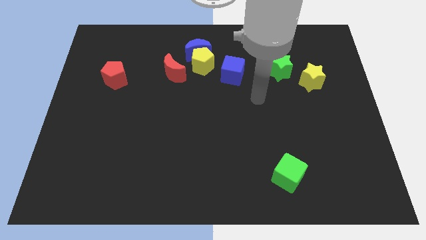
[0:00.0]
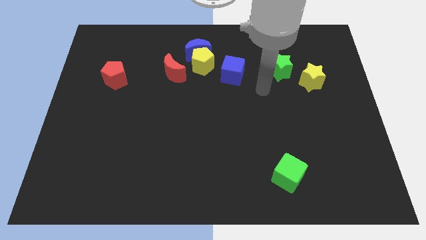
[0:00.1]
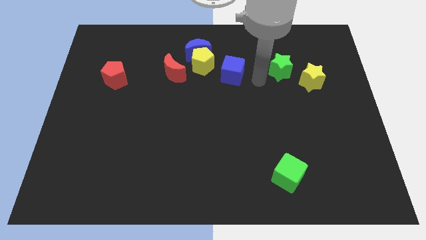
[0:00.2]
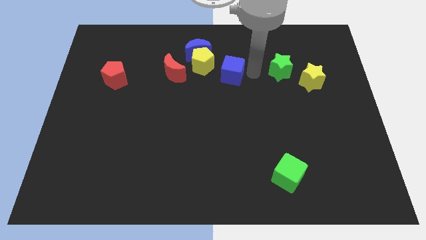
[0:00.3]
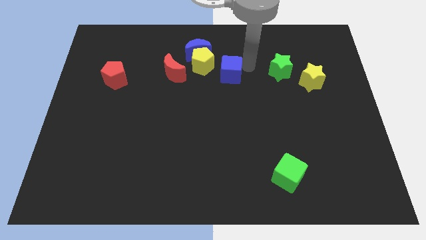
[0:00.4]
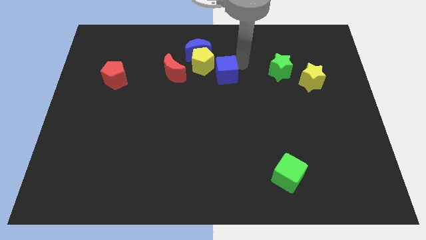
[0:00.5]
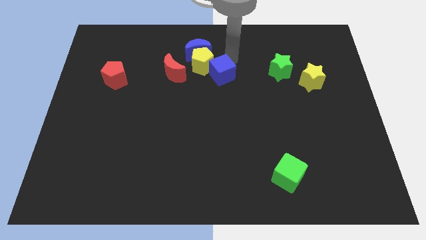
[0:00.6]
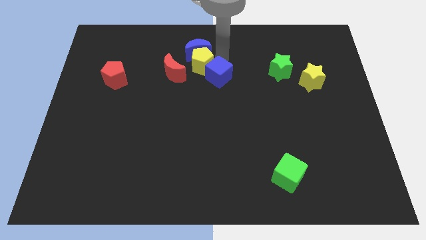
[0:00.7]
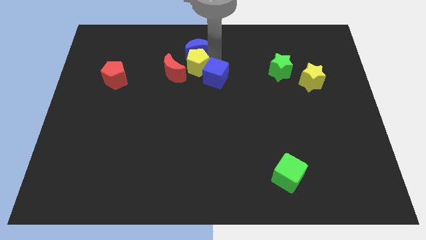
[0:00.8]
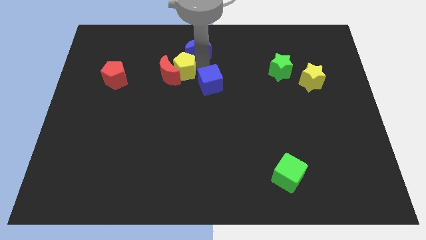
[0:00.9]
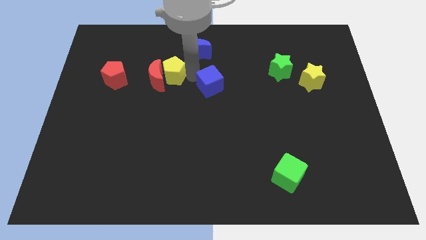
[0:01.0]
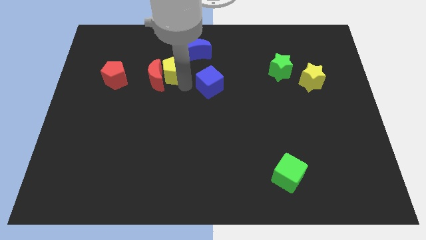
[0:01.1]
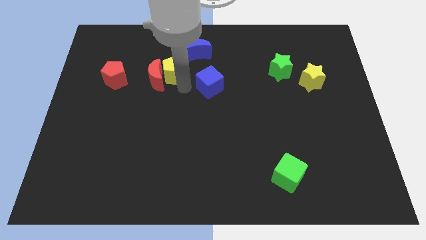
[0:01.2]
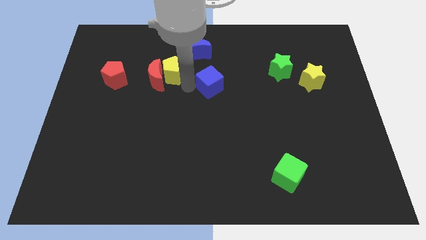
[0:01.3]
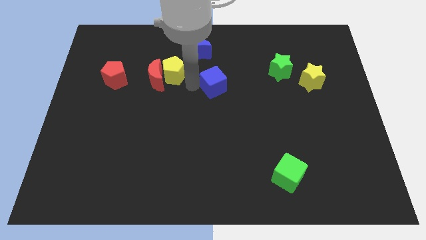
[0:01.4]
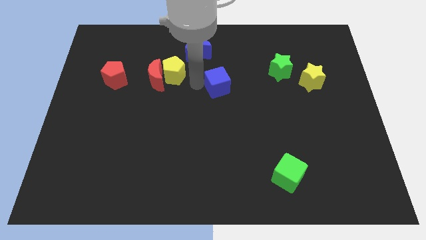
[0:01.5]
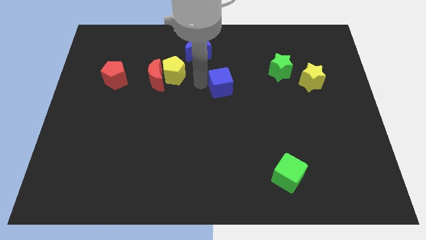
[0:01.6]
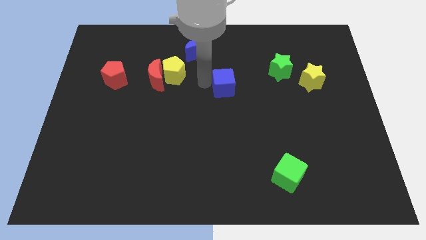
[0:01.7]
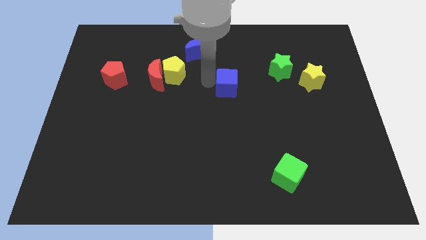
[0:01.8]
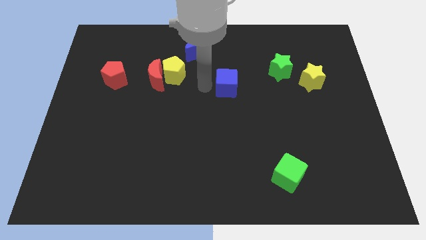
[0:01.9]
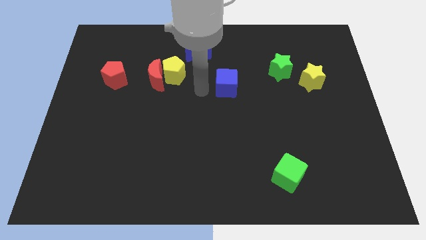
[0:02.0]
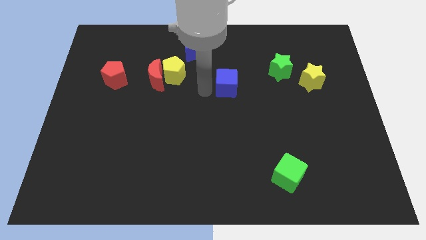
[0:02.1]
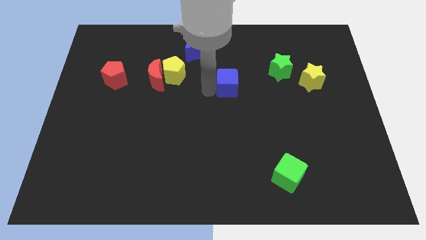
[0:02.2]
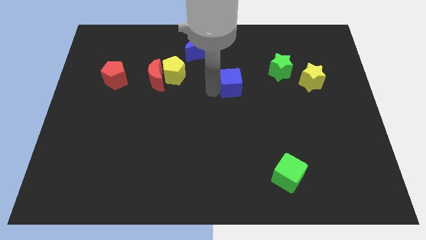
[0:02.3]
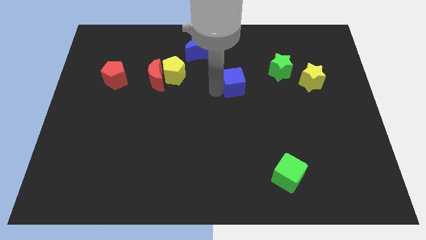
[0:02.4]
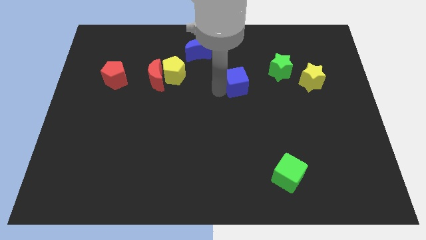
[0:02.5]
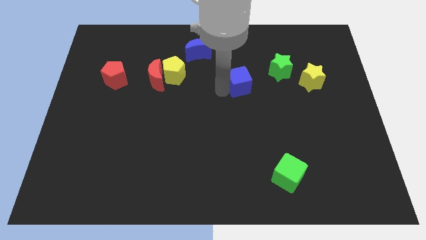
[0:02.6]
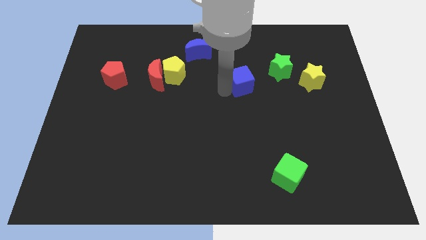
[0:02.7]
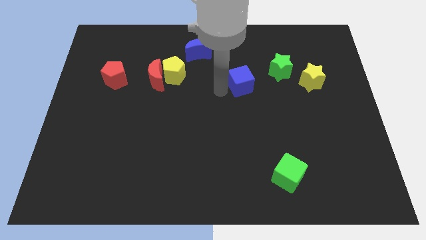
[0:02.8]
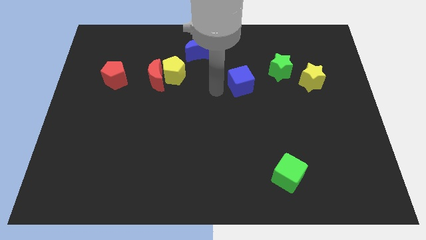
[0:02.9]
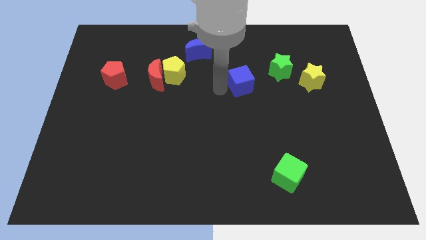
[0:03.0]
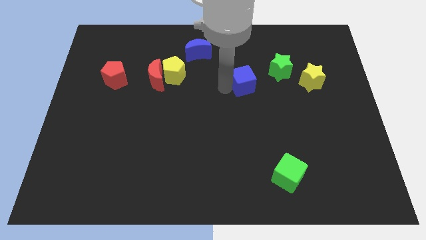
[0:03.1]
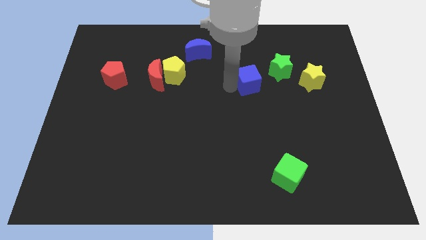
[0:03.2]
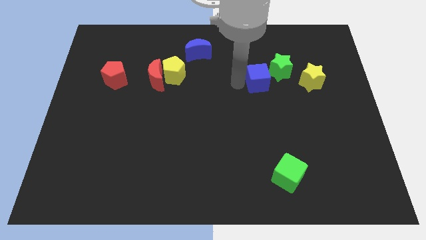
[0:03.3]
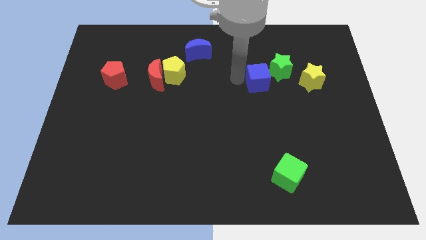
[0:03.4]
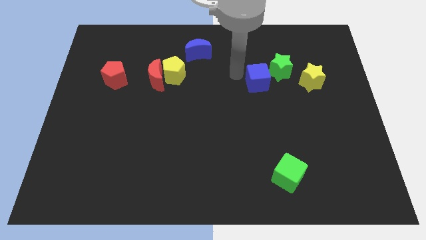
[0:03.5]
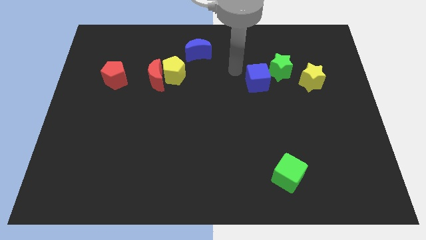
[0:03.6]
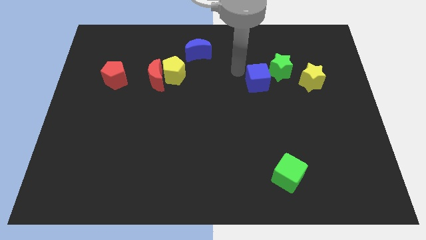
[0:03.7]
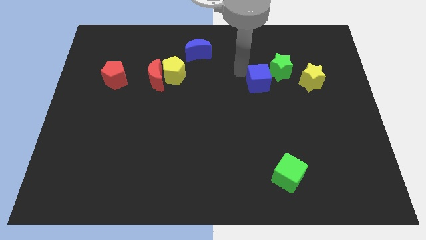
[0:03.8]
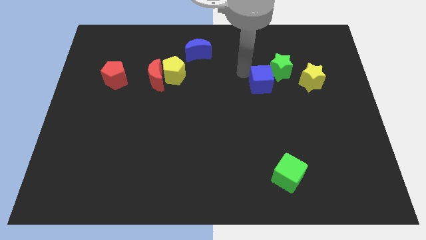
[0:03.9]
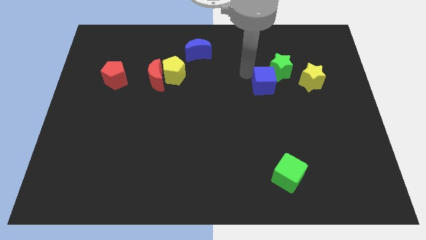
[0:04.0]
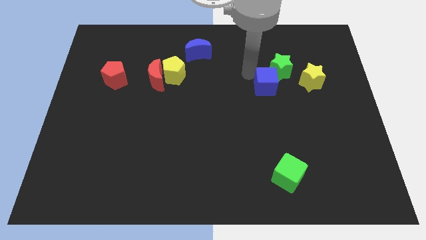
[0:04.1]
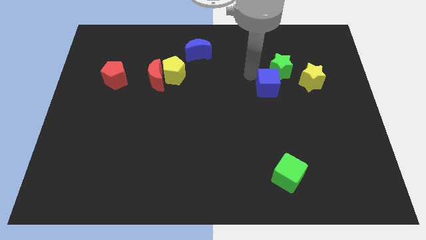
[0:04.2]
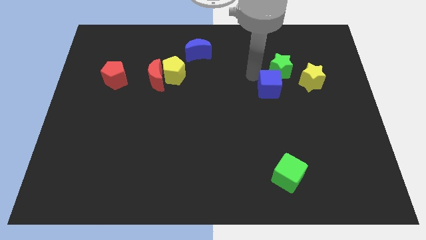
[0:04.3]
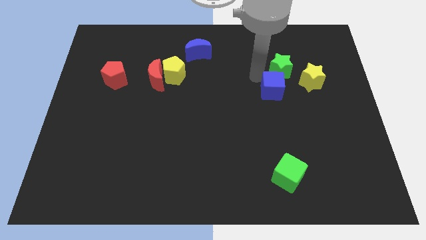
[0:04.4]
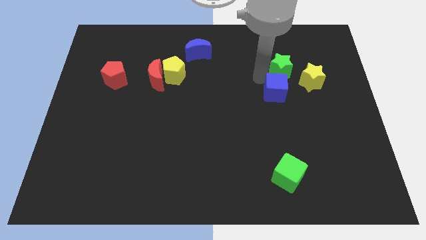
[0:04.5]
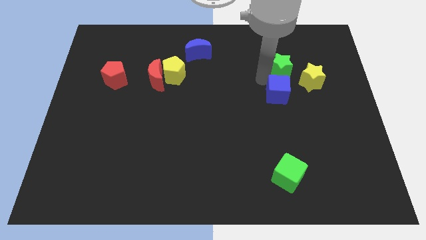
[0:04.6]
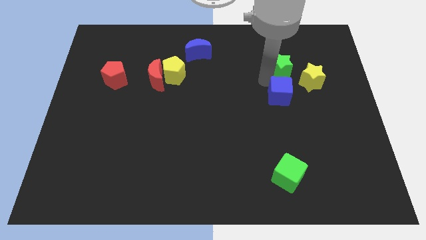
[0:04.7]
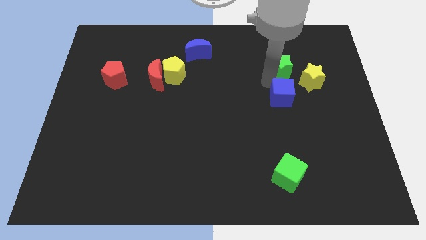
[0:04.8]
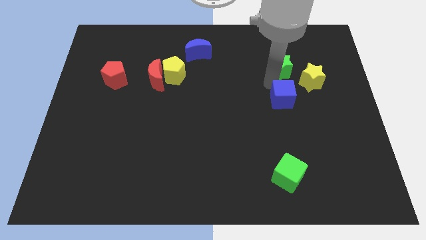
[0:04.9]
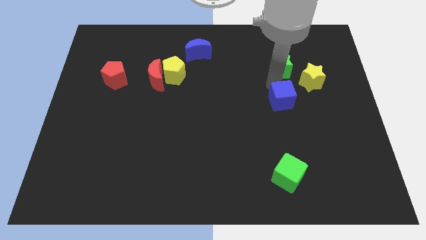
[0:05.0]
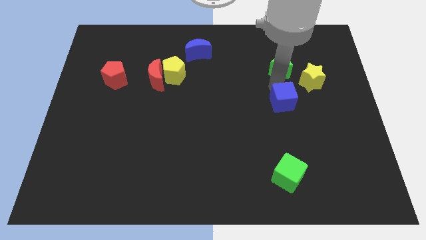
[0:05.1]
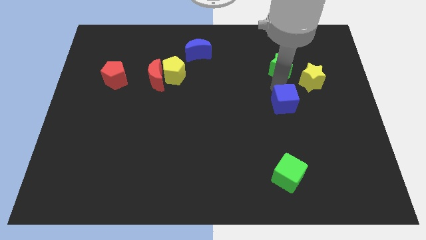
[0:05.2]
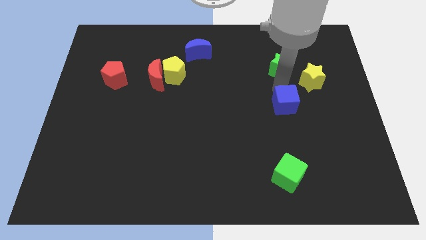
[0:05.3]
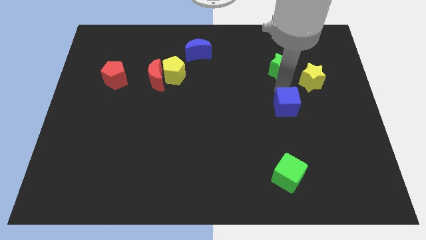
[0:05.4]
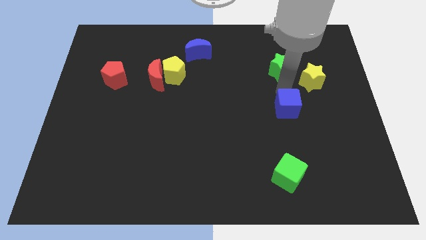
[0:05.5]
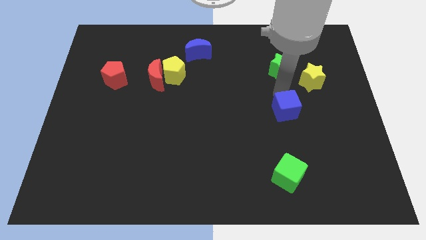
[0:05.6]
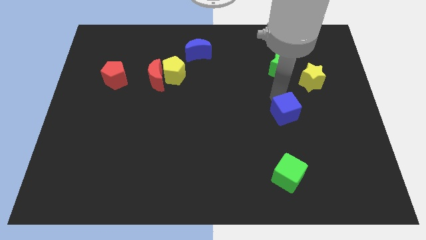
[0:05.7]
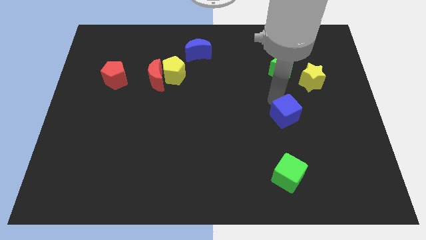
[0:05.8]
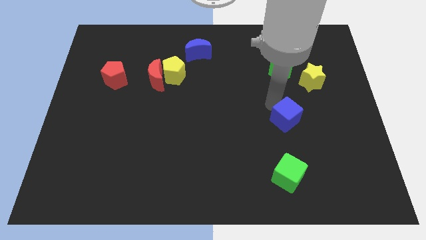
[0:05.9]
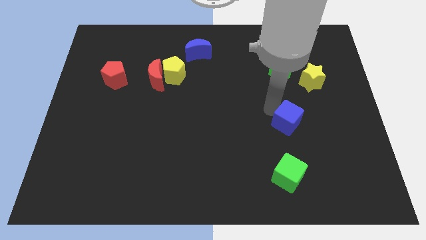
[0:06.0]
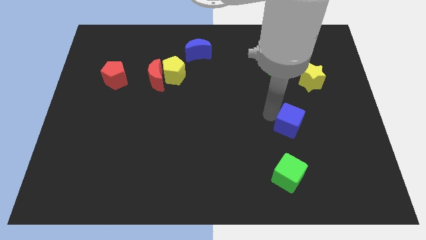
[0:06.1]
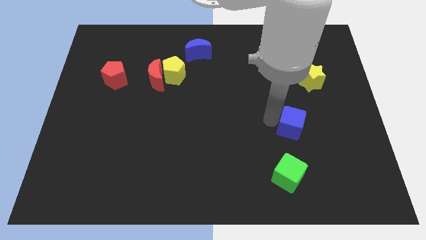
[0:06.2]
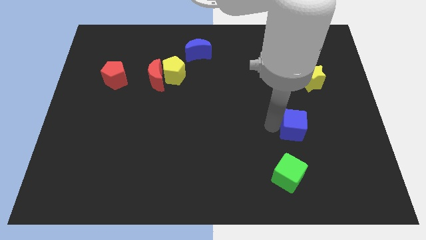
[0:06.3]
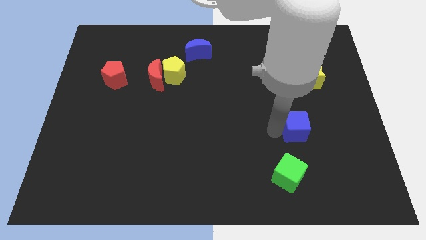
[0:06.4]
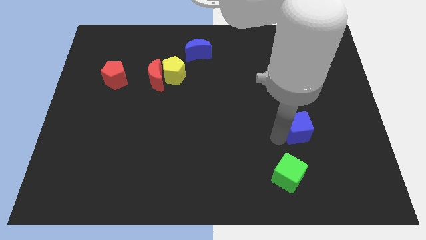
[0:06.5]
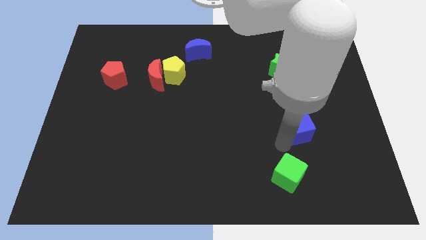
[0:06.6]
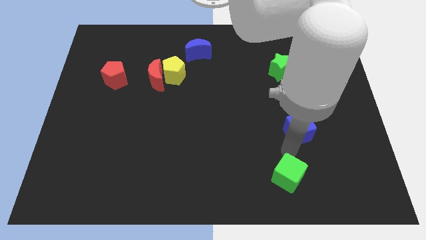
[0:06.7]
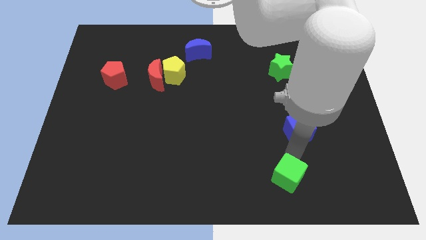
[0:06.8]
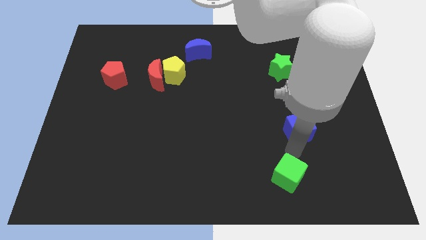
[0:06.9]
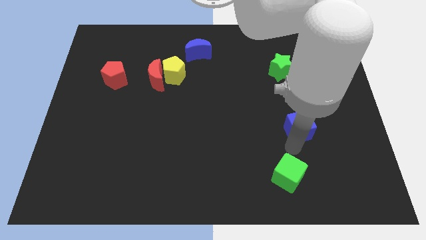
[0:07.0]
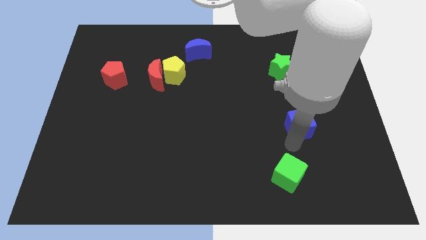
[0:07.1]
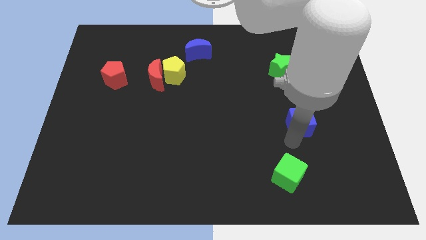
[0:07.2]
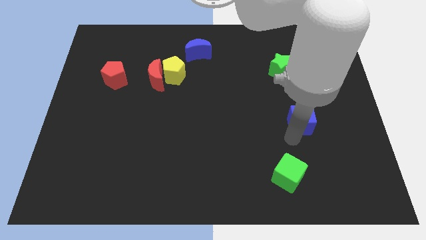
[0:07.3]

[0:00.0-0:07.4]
slide the blue cube below the yellow star

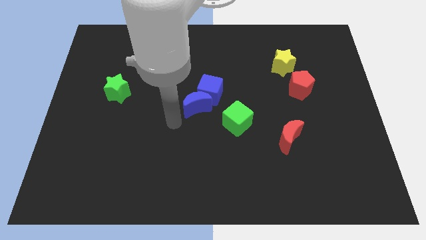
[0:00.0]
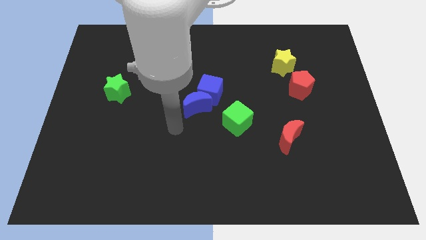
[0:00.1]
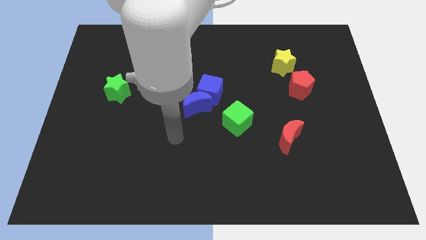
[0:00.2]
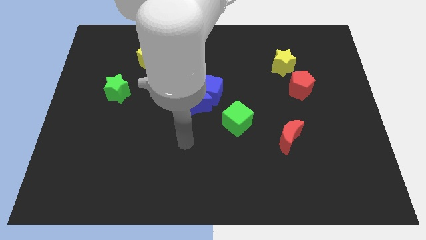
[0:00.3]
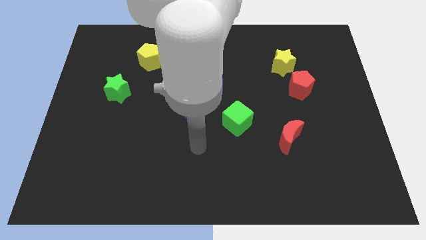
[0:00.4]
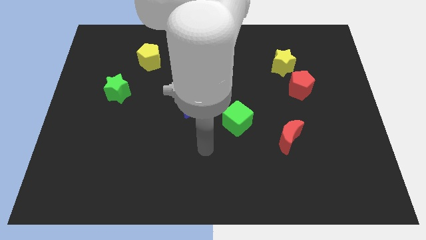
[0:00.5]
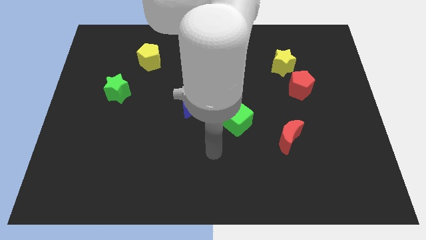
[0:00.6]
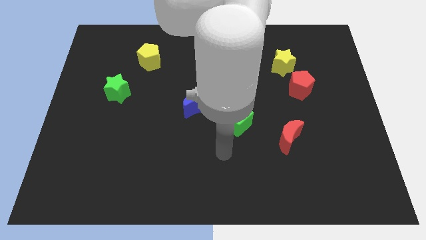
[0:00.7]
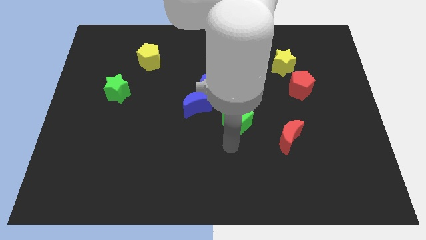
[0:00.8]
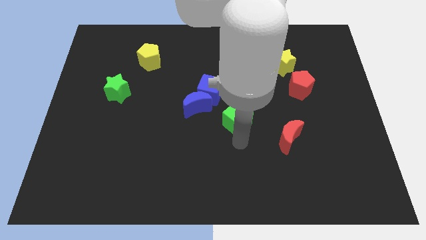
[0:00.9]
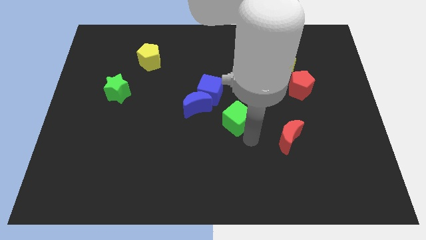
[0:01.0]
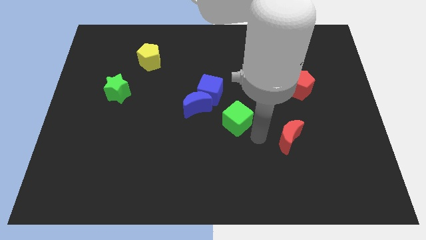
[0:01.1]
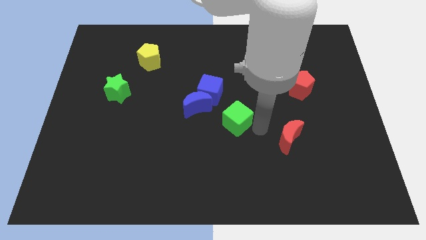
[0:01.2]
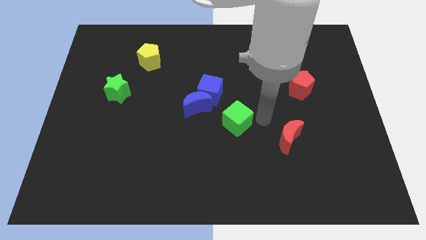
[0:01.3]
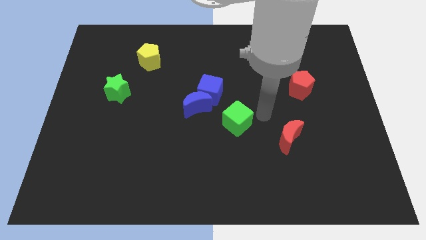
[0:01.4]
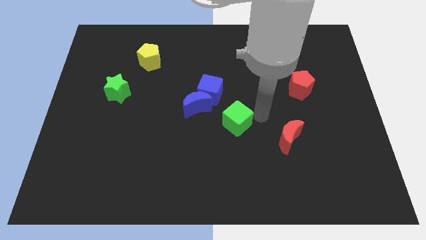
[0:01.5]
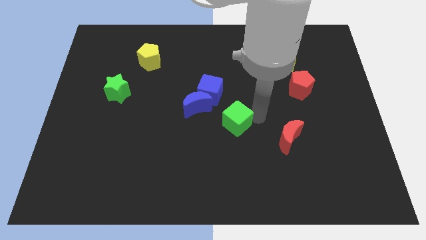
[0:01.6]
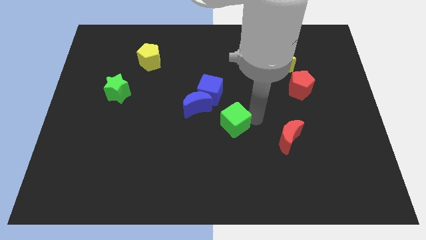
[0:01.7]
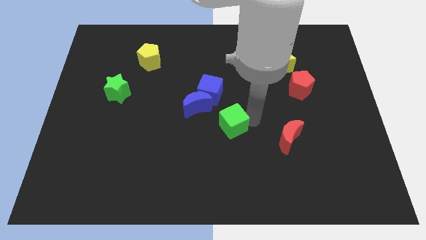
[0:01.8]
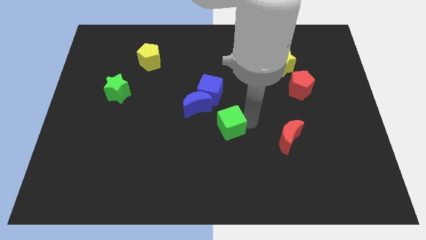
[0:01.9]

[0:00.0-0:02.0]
move the green cube to the bottom of the blue cube
